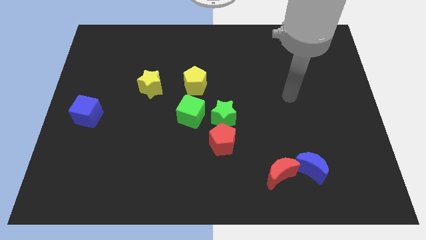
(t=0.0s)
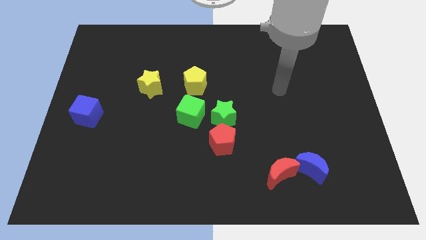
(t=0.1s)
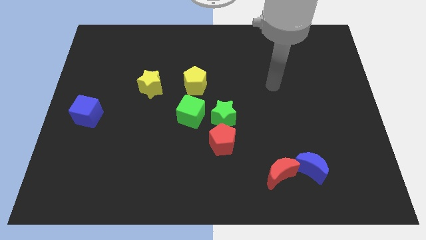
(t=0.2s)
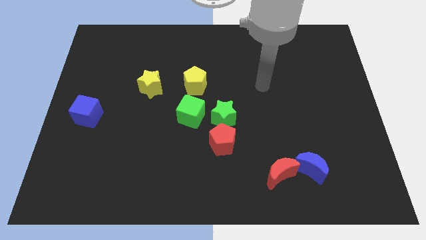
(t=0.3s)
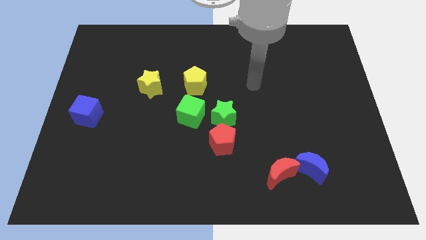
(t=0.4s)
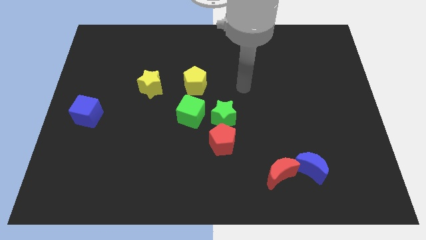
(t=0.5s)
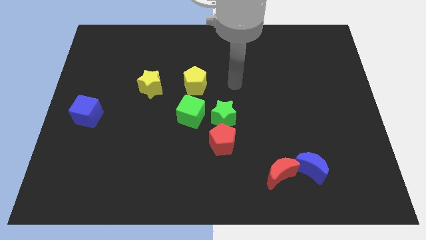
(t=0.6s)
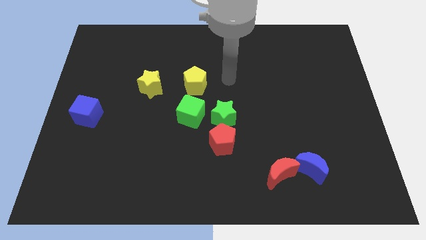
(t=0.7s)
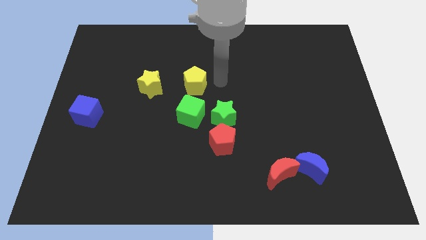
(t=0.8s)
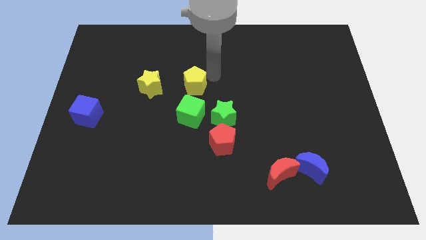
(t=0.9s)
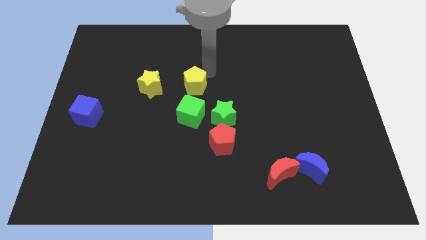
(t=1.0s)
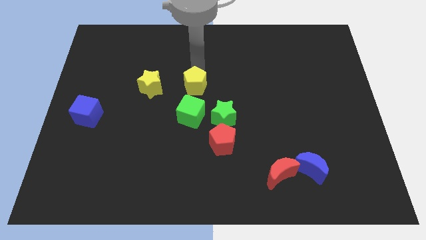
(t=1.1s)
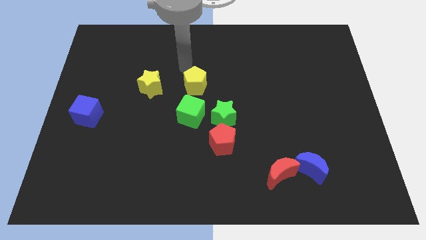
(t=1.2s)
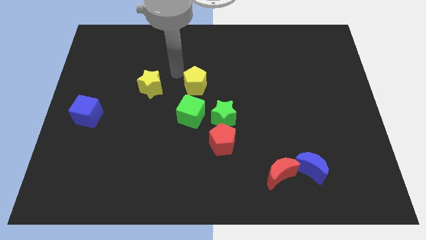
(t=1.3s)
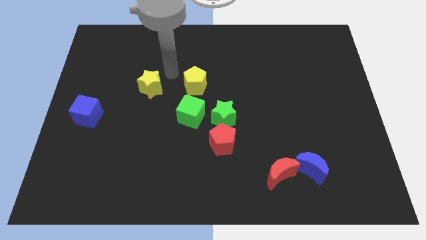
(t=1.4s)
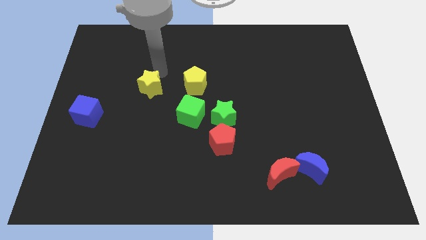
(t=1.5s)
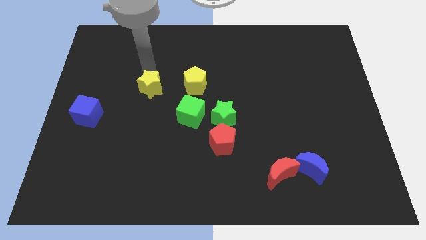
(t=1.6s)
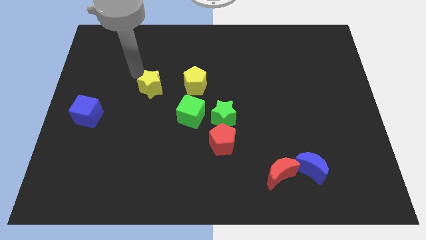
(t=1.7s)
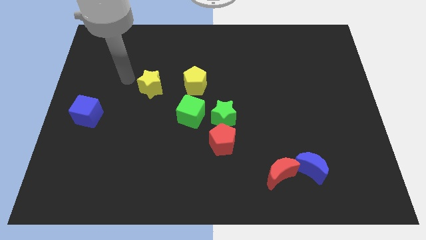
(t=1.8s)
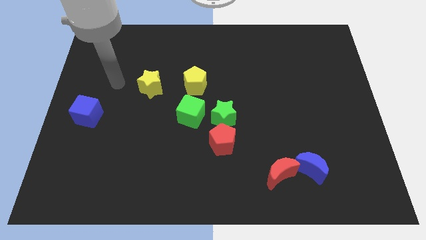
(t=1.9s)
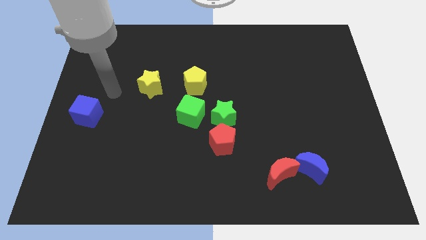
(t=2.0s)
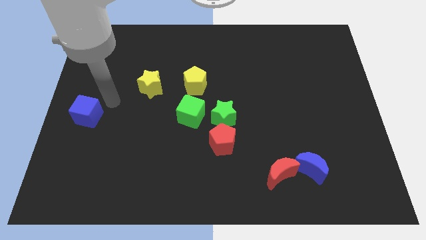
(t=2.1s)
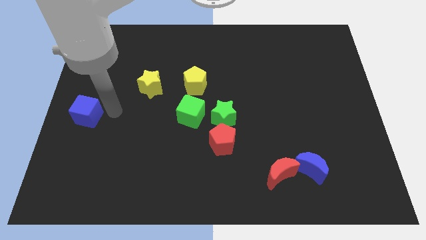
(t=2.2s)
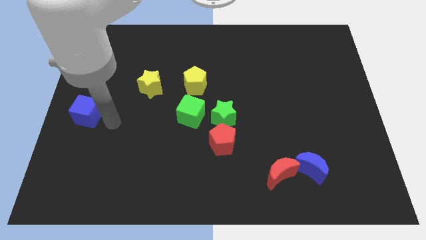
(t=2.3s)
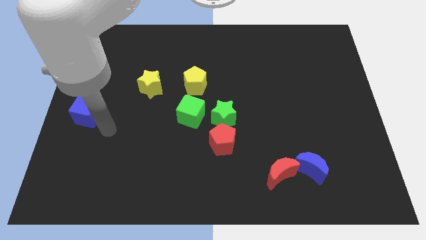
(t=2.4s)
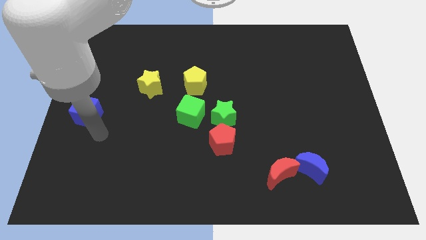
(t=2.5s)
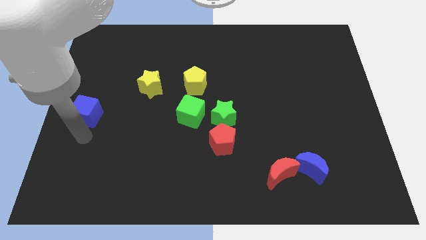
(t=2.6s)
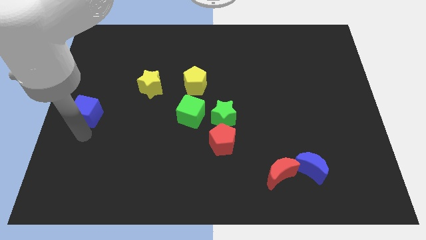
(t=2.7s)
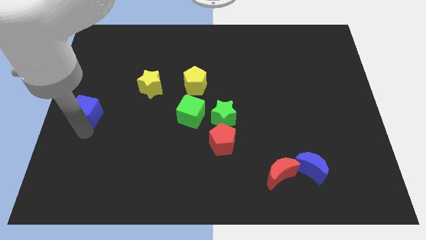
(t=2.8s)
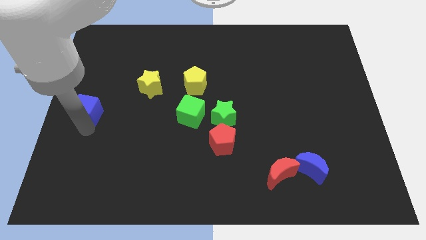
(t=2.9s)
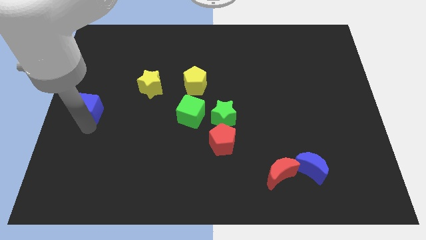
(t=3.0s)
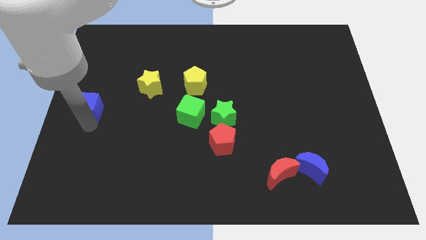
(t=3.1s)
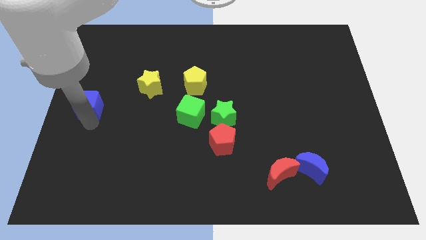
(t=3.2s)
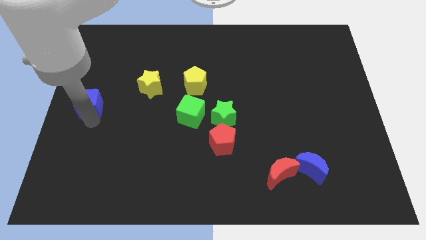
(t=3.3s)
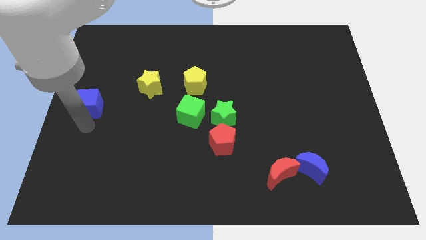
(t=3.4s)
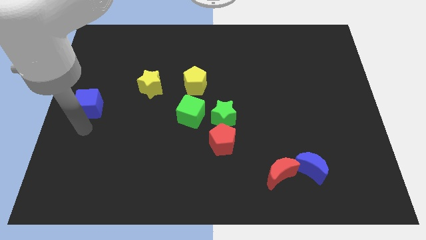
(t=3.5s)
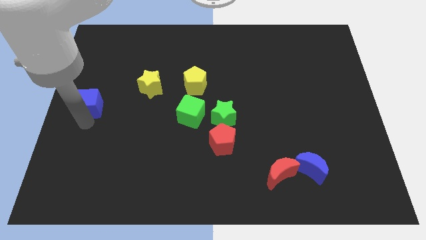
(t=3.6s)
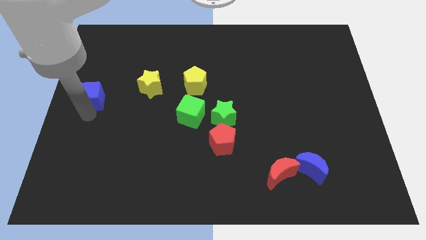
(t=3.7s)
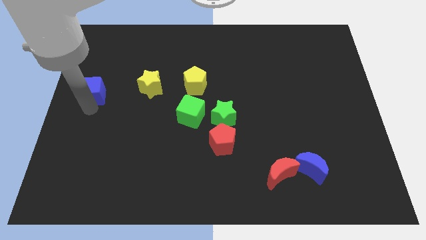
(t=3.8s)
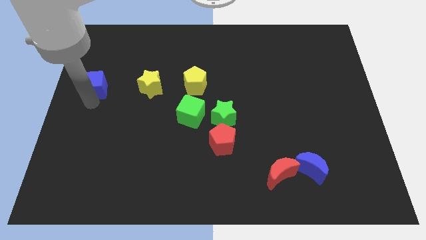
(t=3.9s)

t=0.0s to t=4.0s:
slightly push the blue cube up

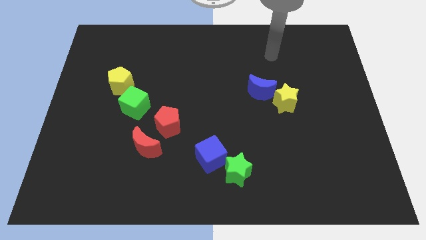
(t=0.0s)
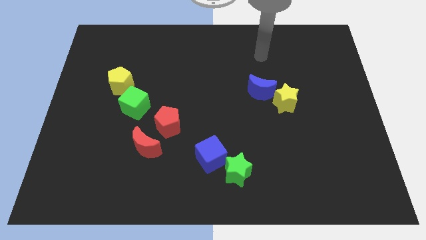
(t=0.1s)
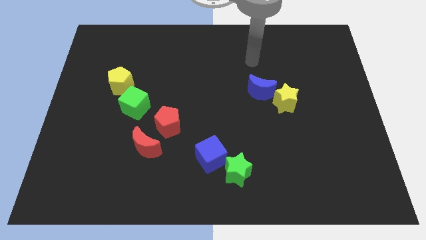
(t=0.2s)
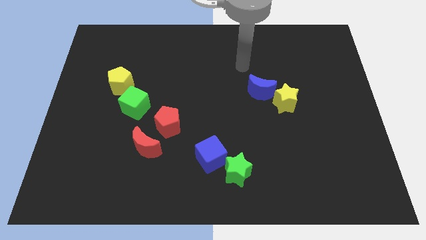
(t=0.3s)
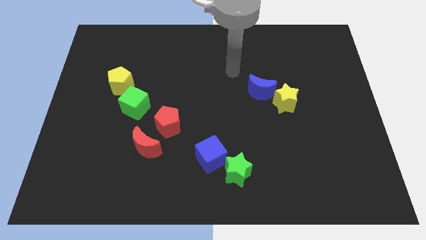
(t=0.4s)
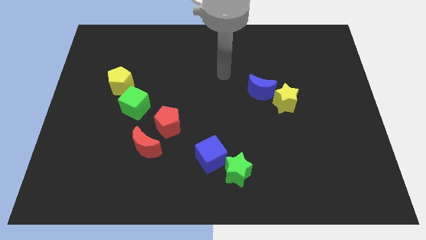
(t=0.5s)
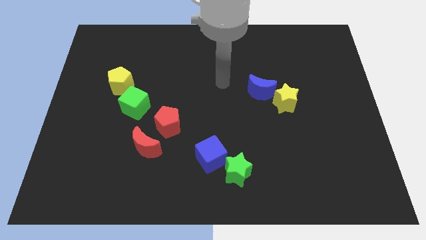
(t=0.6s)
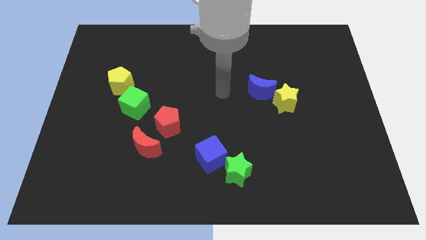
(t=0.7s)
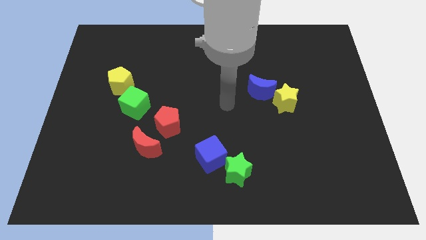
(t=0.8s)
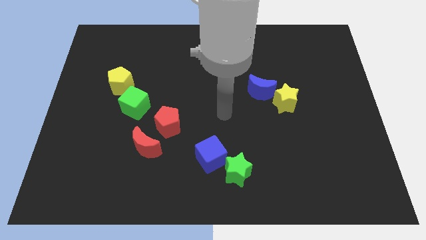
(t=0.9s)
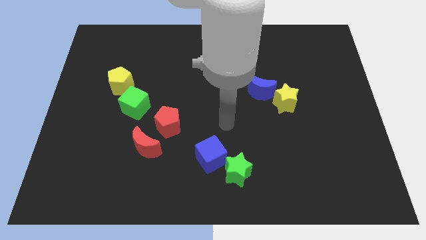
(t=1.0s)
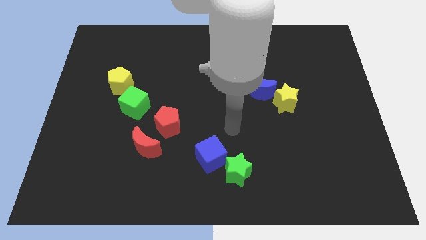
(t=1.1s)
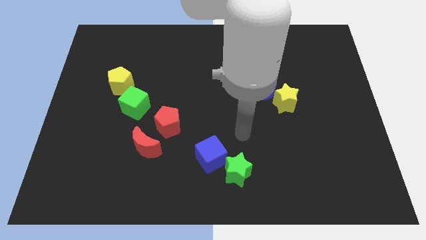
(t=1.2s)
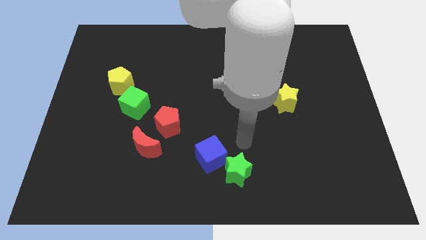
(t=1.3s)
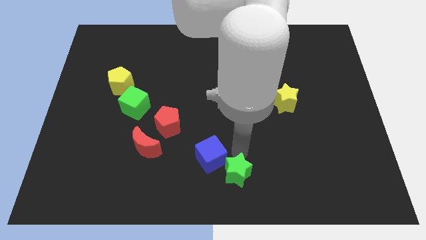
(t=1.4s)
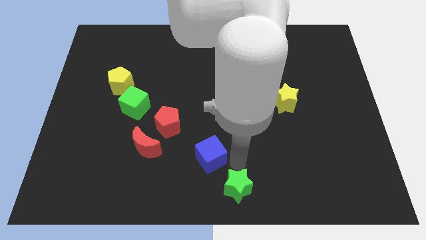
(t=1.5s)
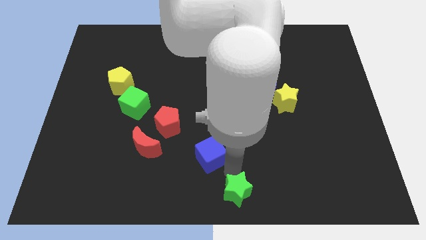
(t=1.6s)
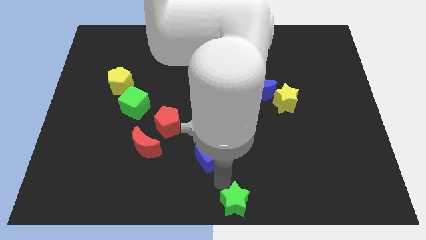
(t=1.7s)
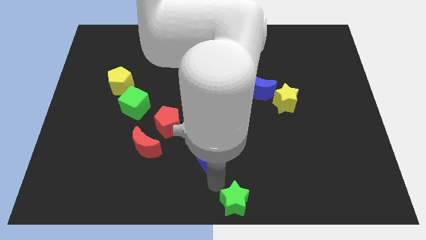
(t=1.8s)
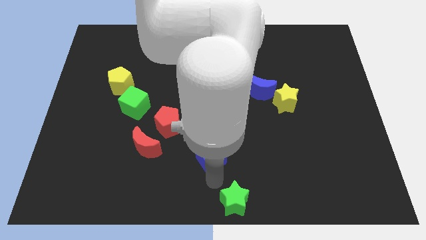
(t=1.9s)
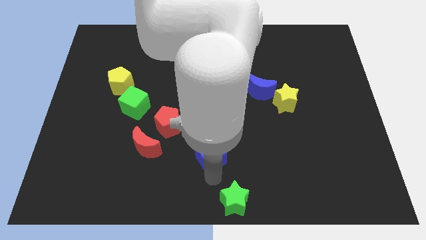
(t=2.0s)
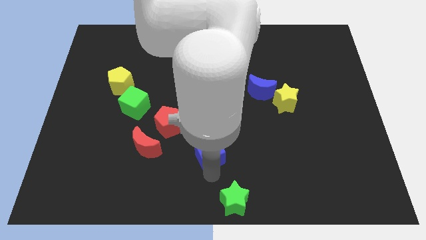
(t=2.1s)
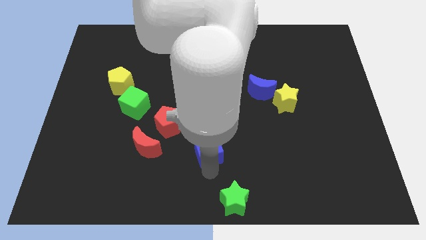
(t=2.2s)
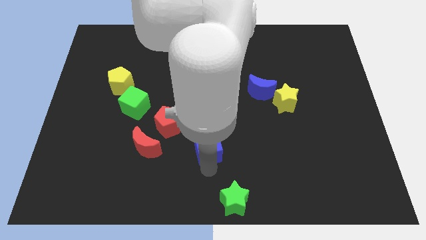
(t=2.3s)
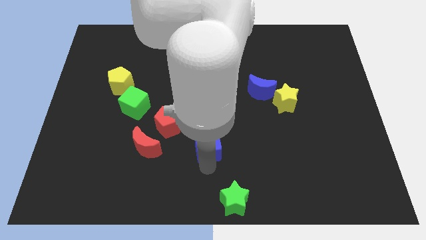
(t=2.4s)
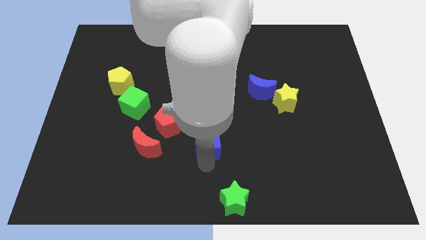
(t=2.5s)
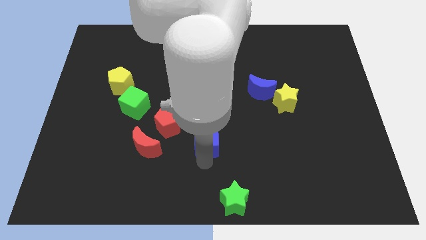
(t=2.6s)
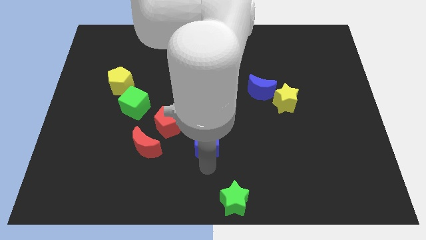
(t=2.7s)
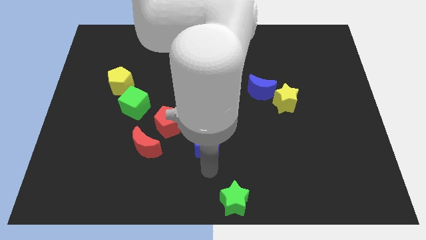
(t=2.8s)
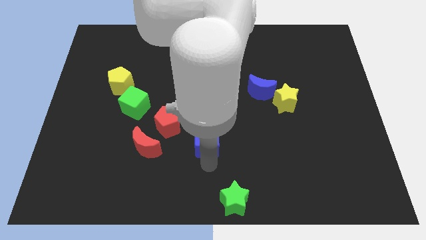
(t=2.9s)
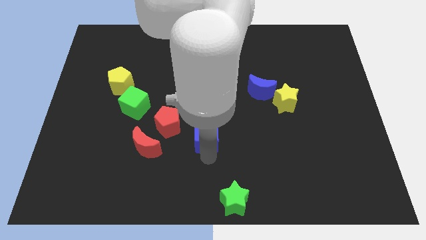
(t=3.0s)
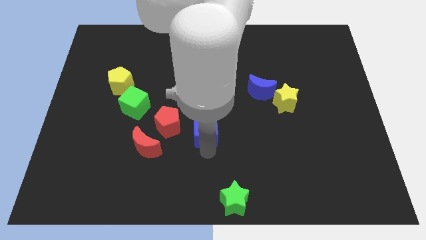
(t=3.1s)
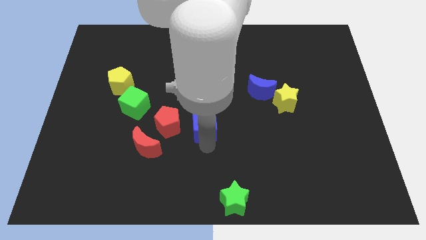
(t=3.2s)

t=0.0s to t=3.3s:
slightly slide the blue cube up

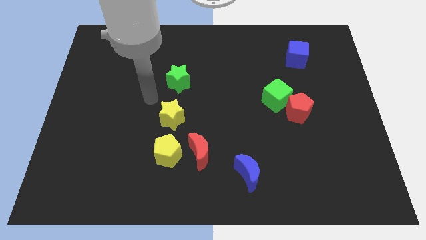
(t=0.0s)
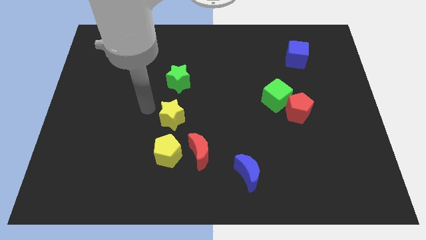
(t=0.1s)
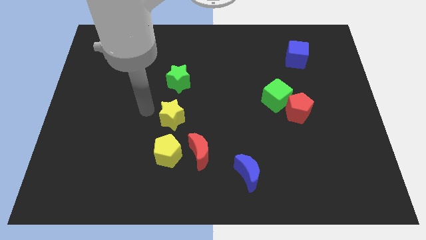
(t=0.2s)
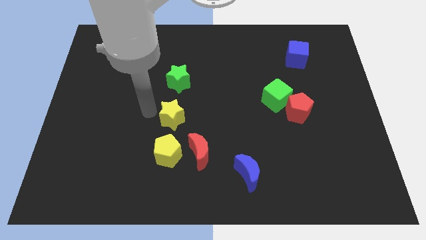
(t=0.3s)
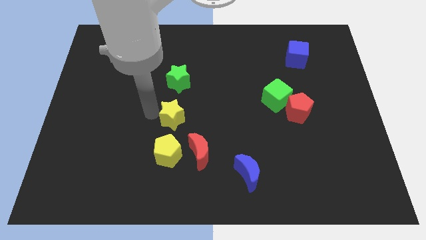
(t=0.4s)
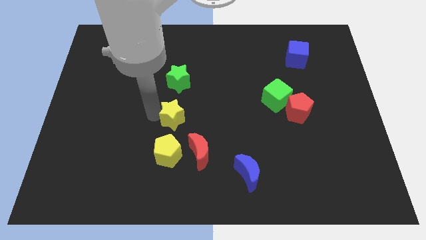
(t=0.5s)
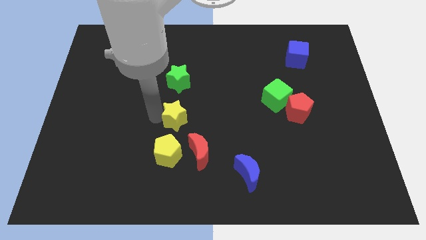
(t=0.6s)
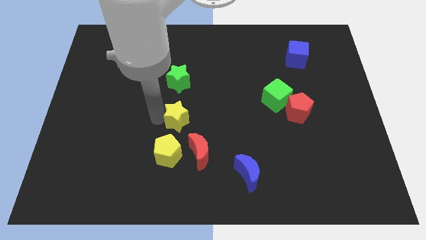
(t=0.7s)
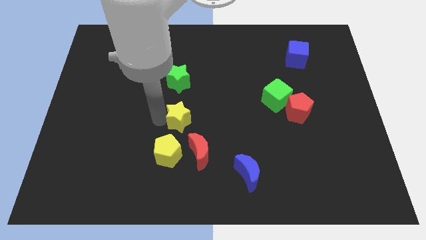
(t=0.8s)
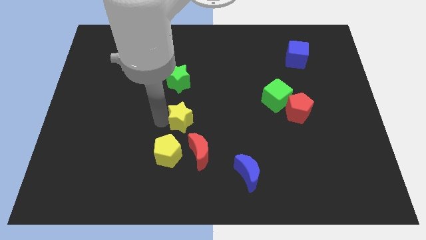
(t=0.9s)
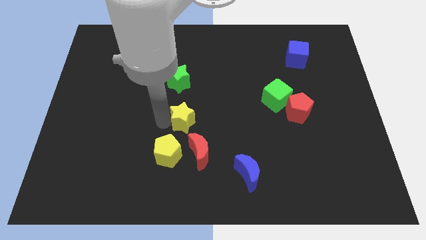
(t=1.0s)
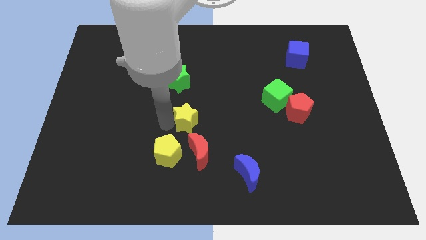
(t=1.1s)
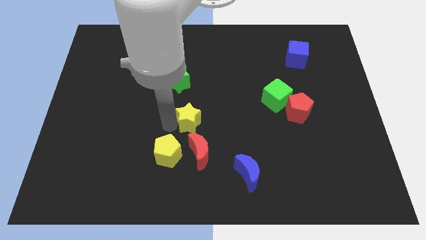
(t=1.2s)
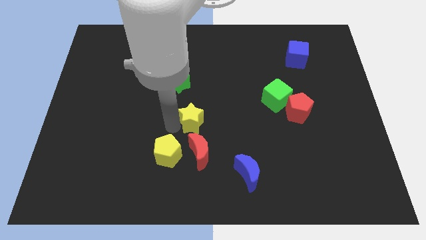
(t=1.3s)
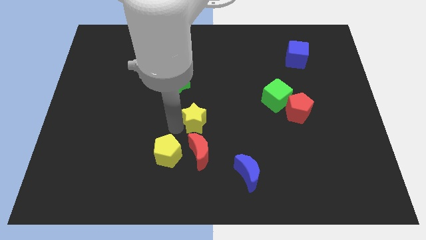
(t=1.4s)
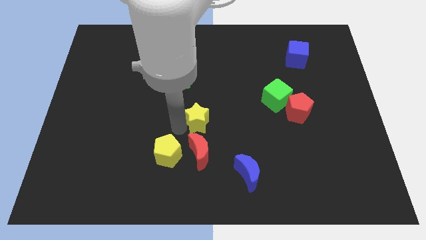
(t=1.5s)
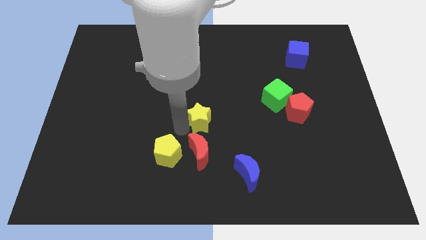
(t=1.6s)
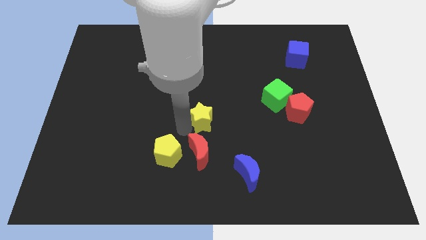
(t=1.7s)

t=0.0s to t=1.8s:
slide the yellow star slightly to the right
